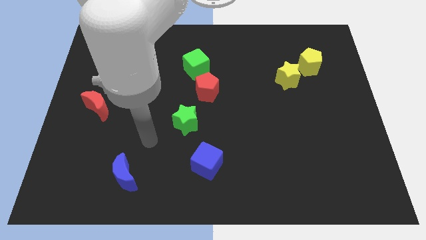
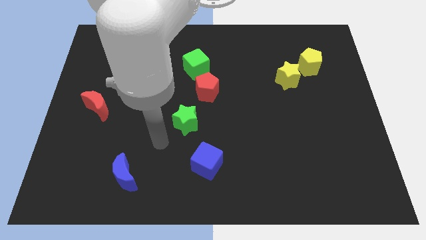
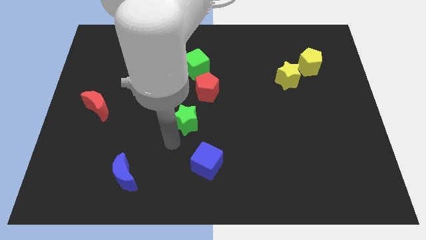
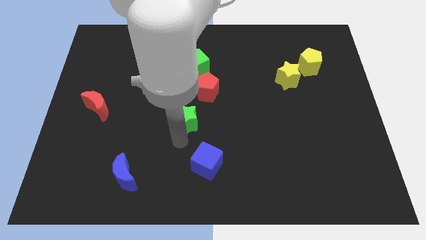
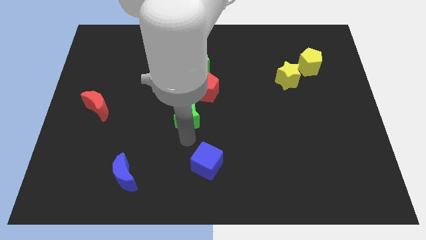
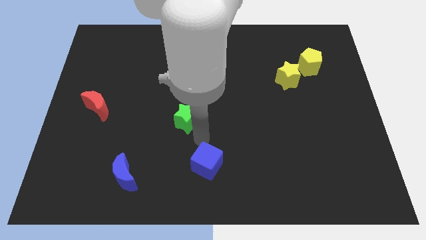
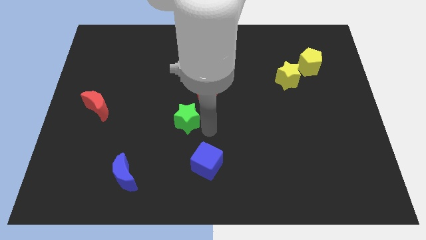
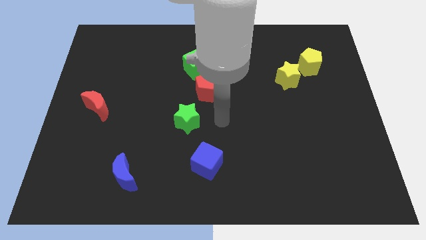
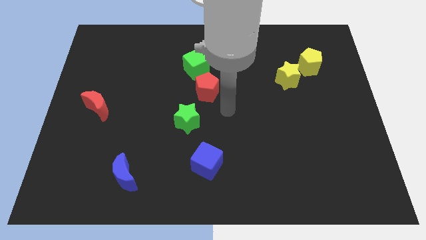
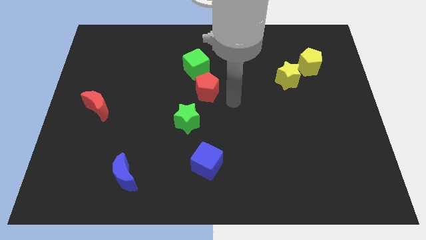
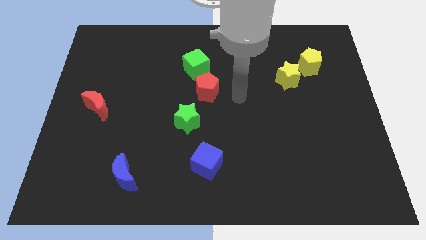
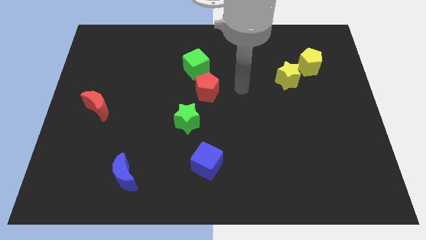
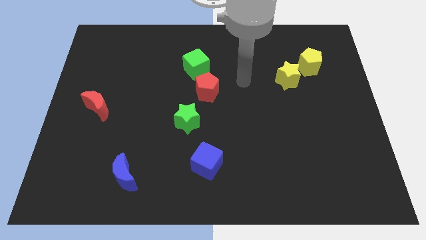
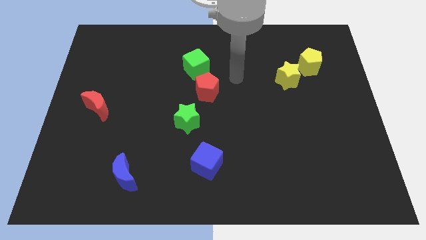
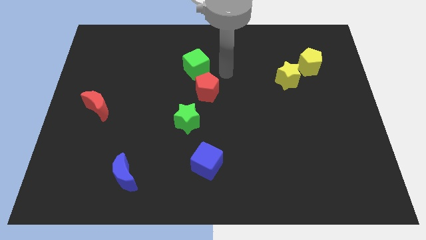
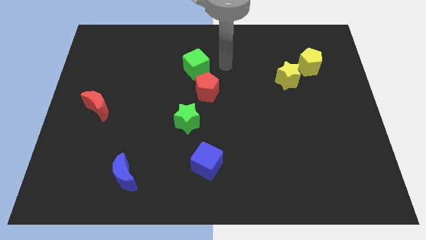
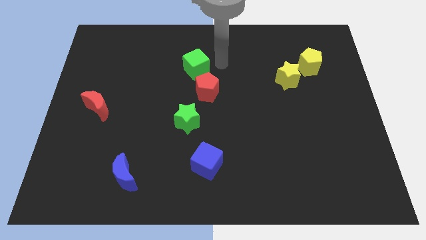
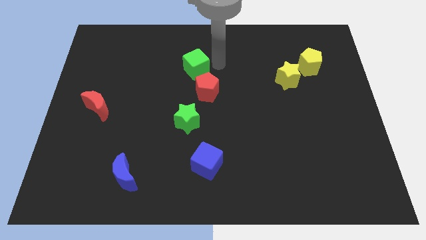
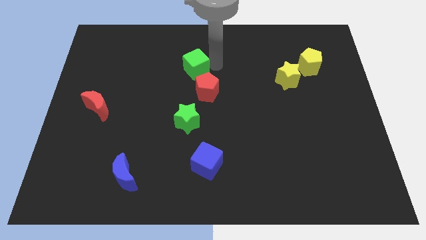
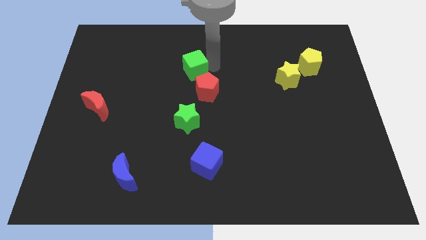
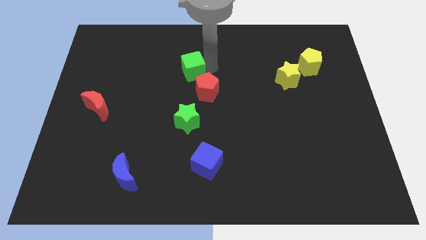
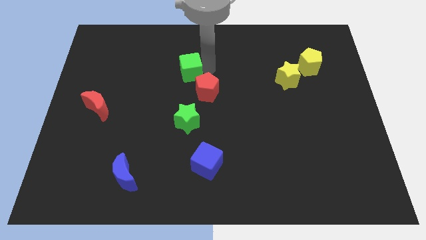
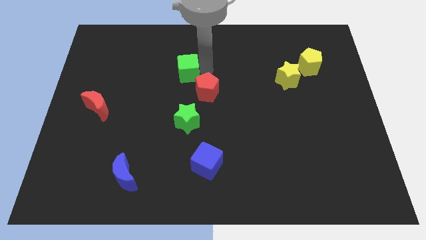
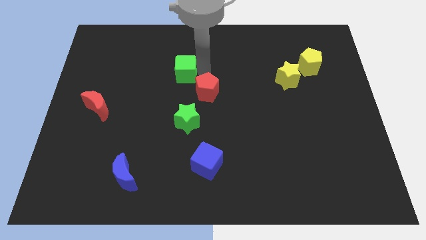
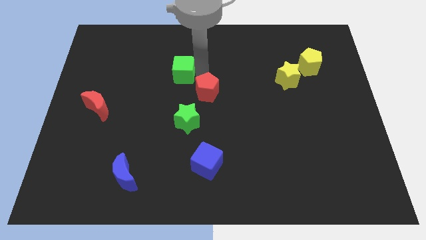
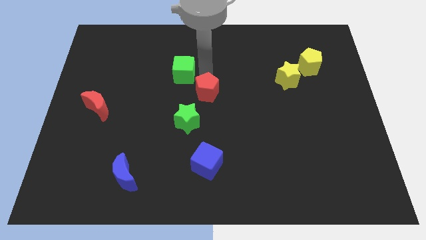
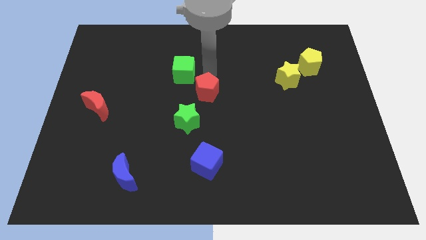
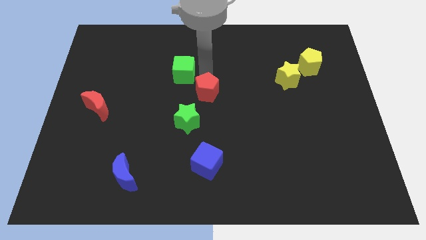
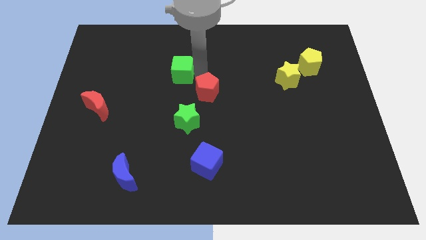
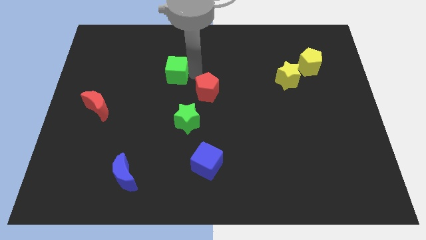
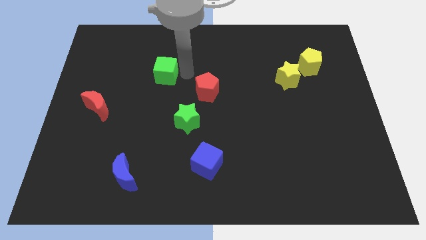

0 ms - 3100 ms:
push the green cube a little to the left

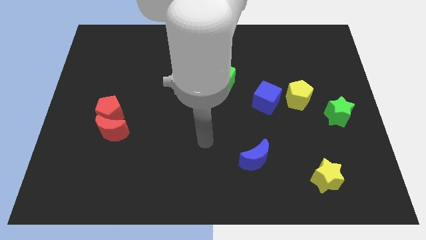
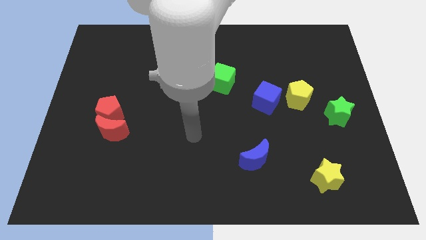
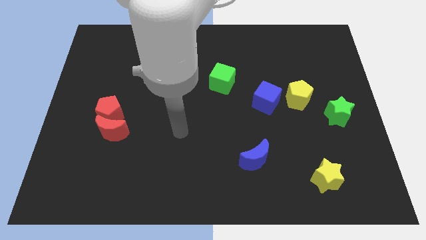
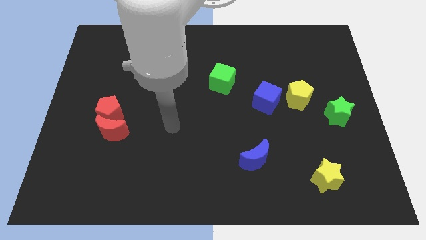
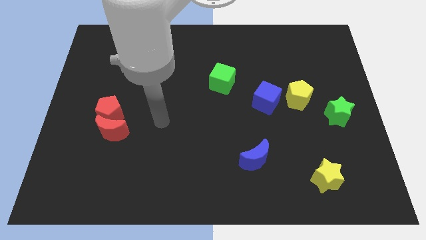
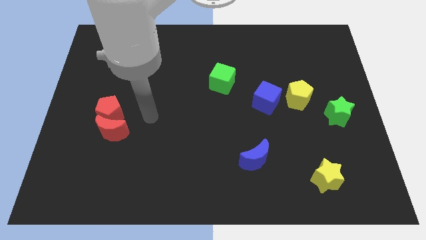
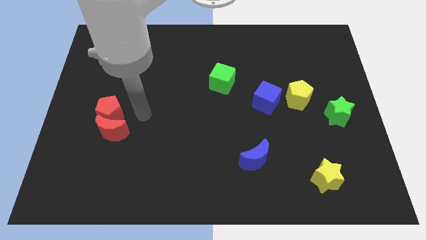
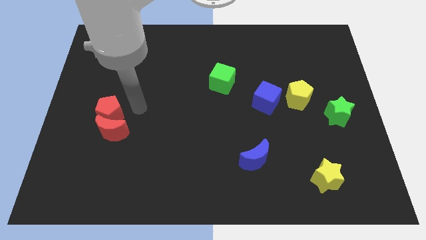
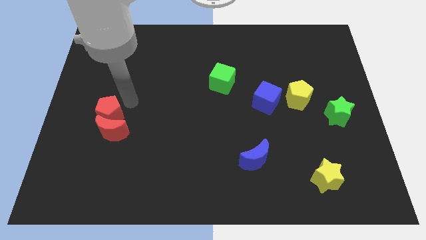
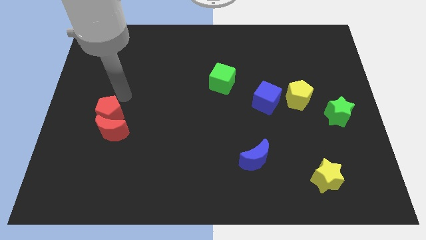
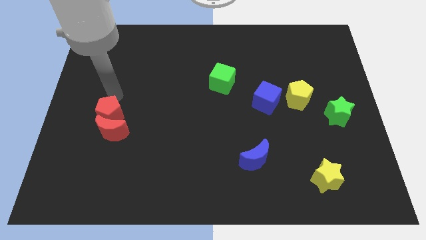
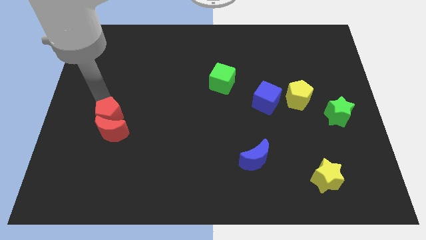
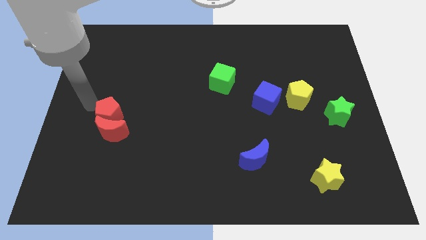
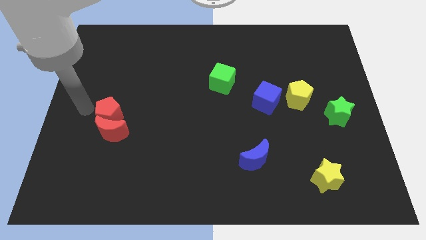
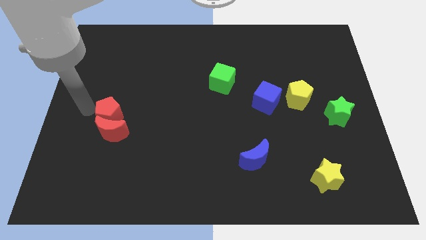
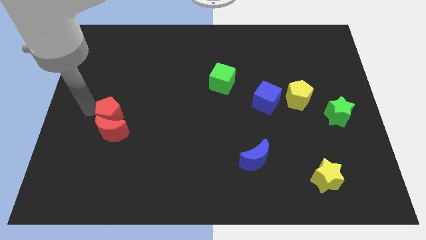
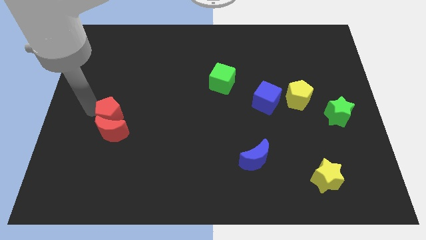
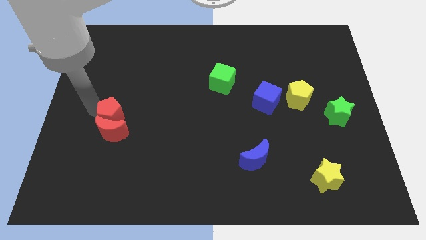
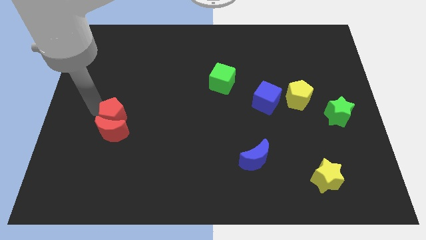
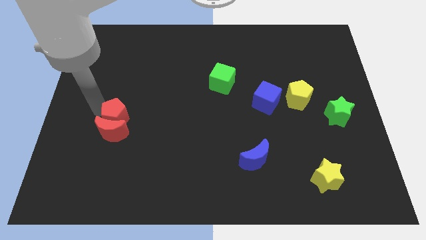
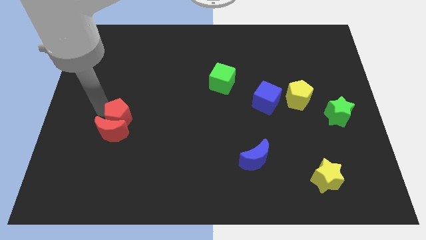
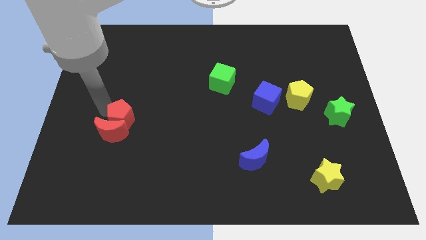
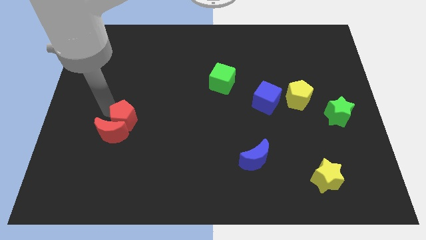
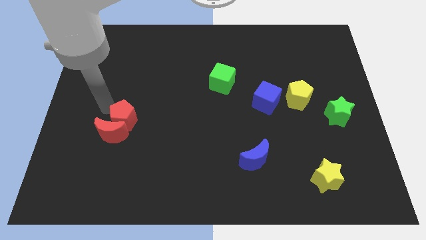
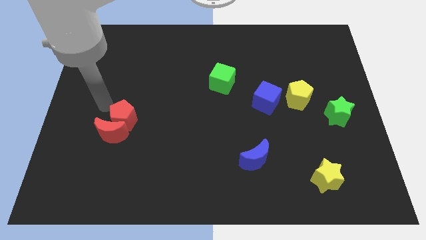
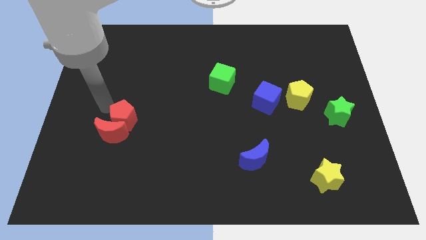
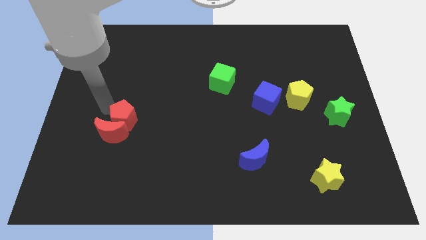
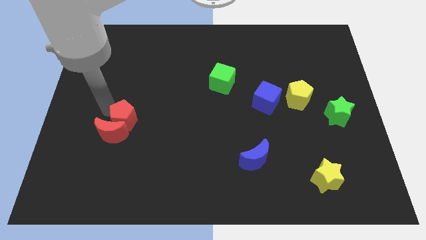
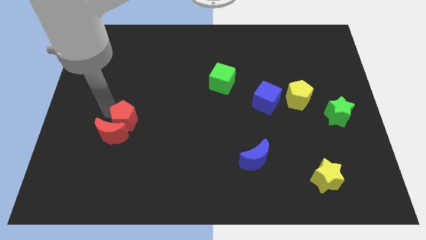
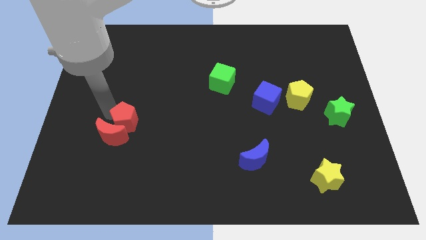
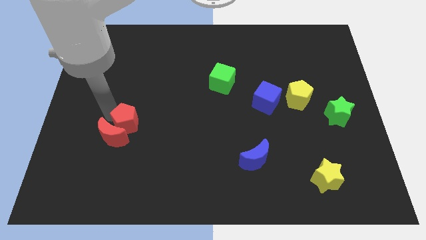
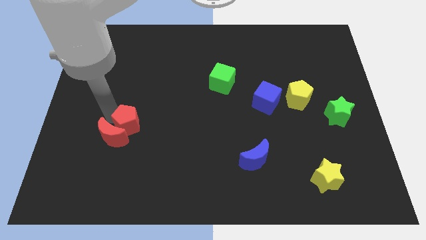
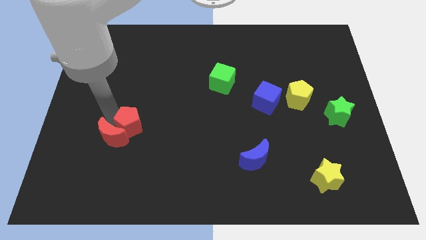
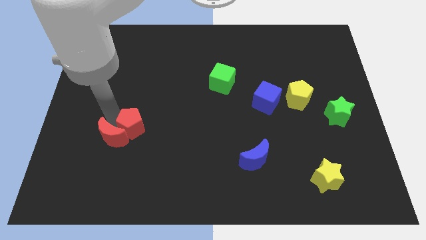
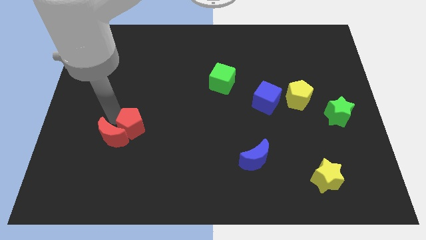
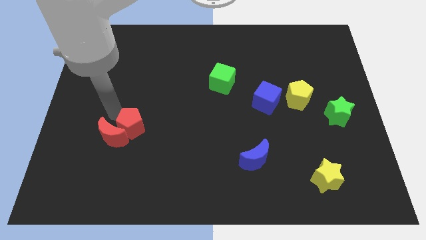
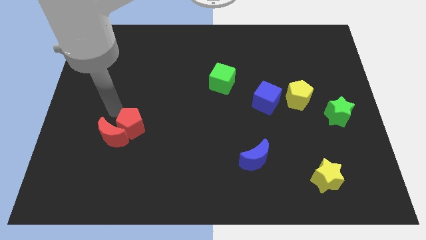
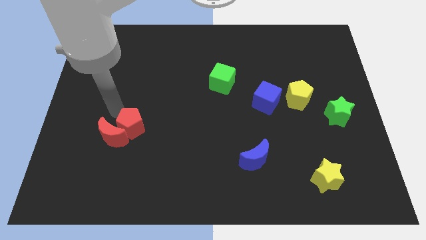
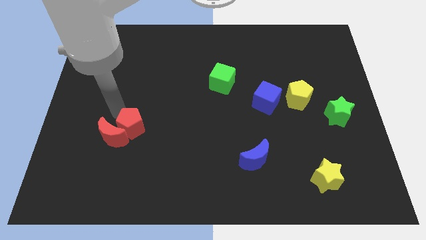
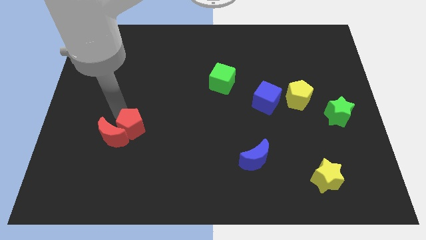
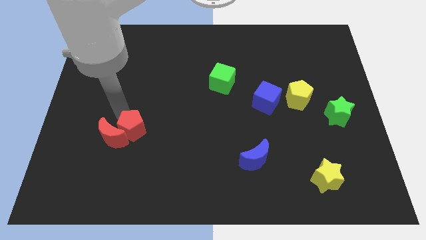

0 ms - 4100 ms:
slide the red pentagon downwards and to the right somewhat

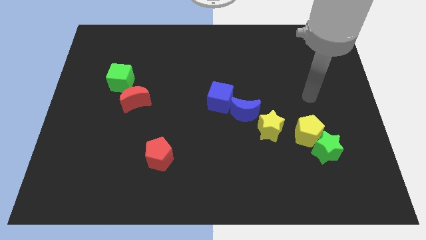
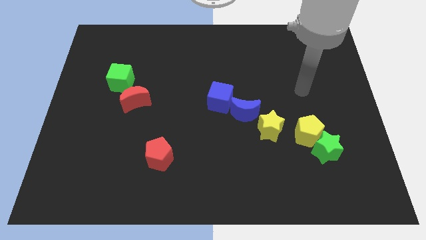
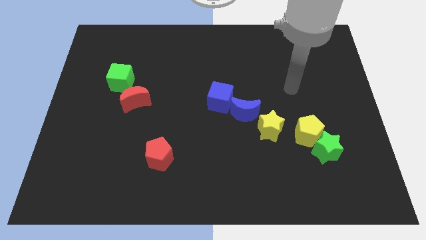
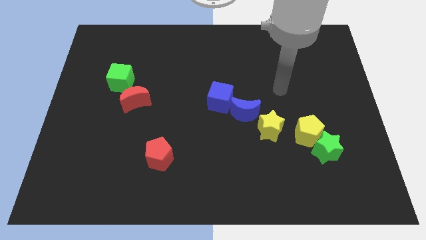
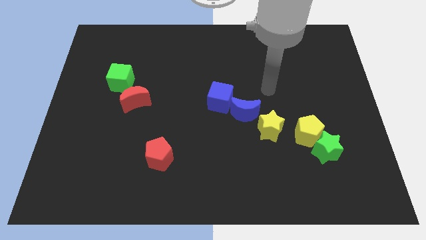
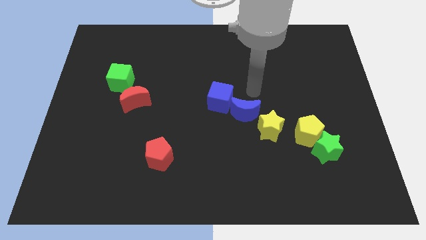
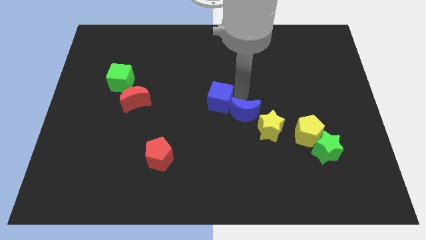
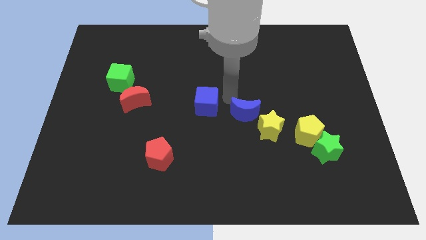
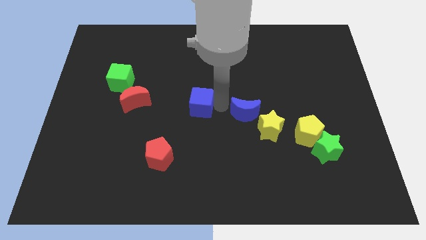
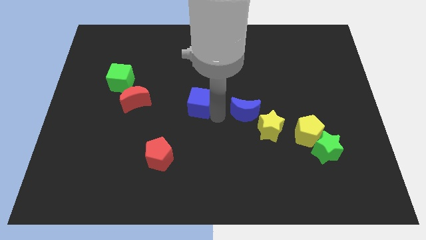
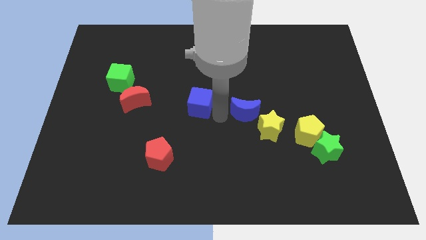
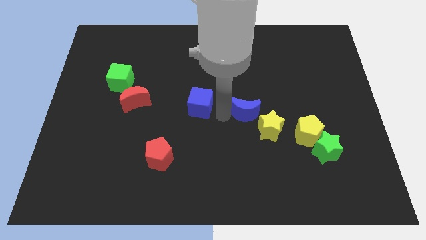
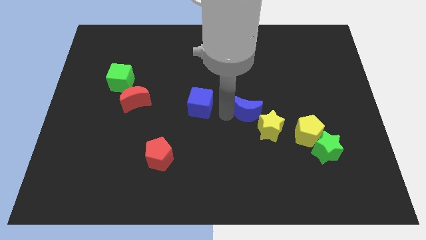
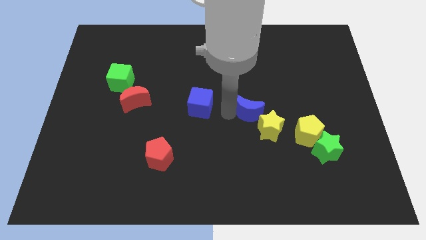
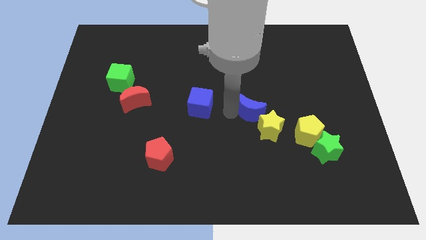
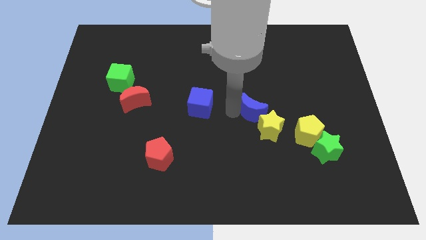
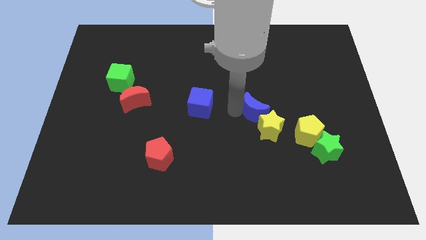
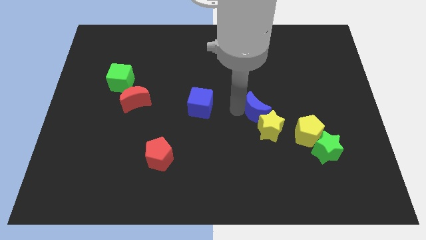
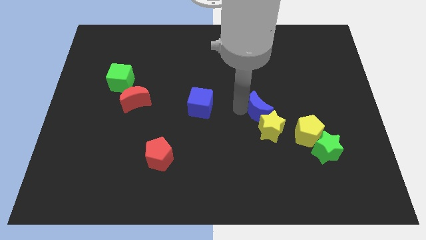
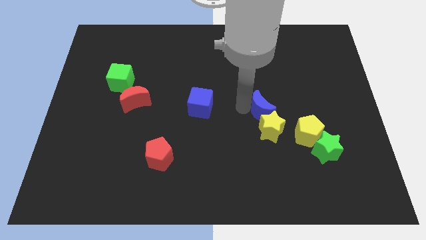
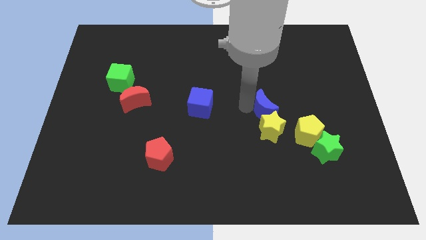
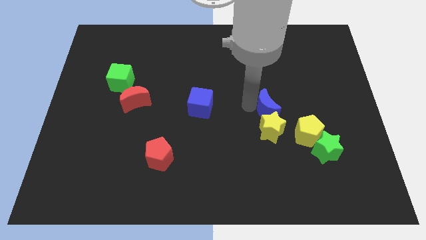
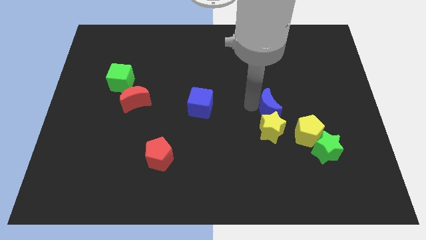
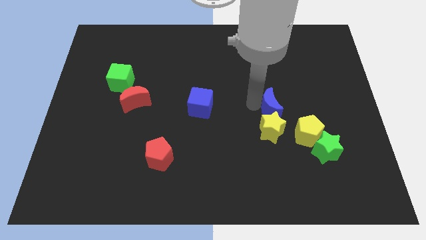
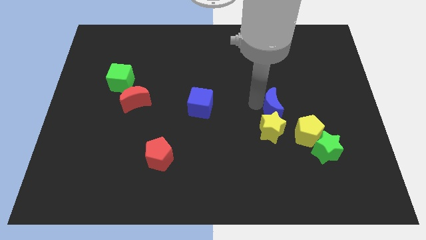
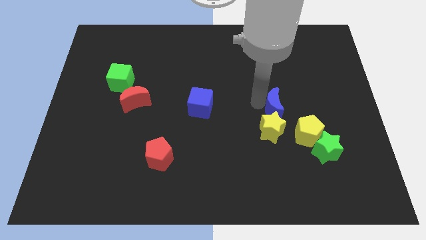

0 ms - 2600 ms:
push the blue moon to the right a bit
